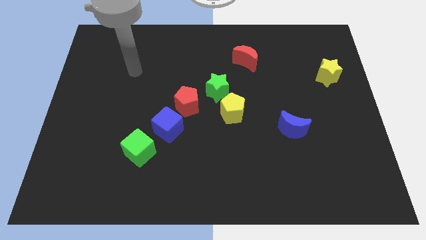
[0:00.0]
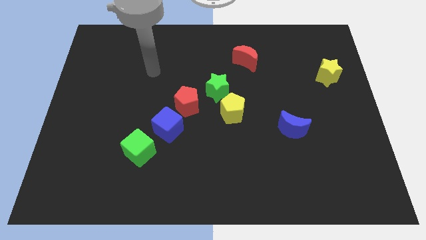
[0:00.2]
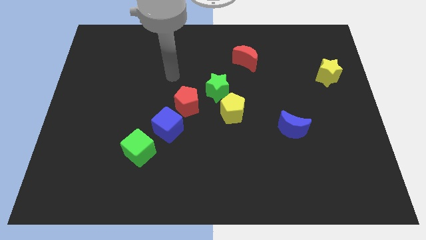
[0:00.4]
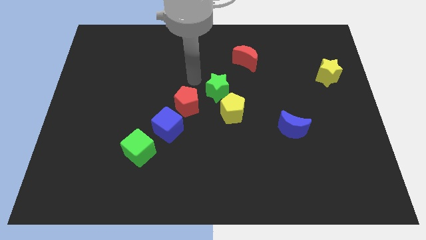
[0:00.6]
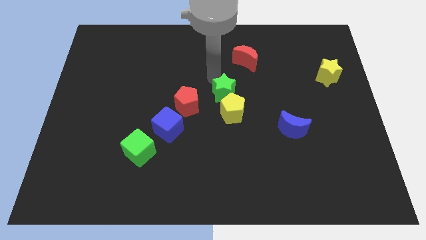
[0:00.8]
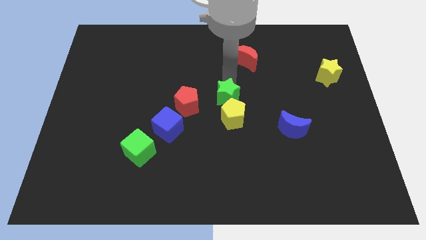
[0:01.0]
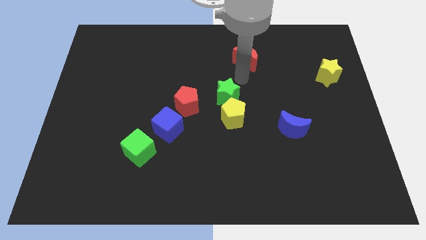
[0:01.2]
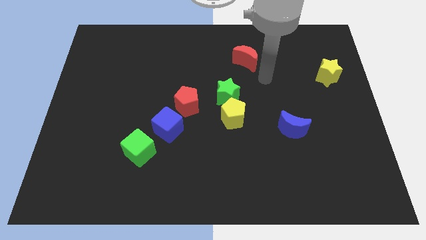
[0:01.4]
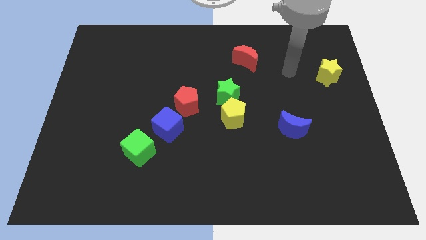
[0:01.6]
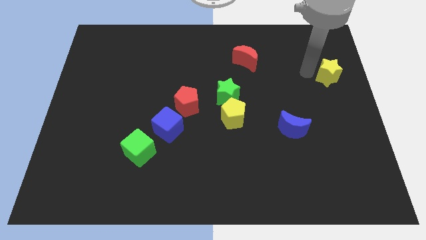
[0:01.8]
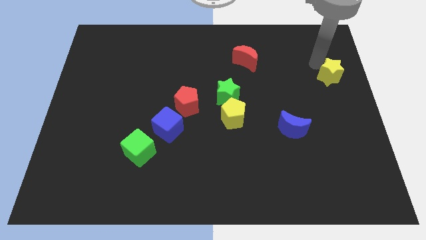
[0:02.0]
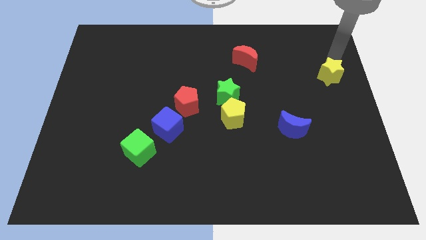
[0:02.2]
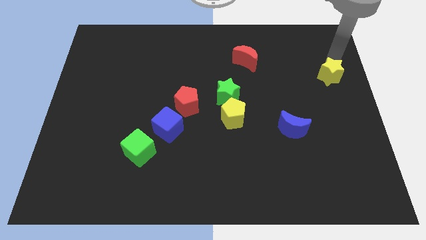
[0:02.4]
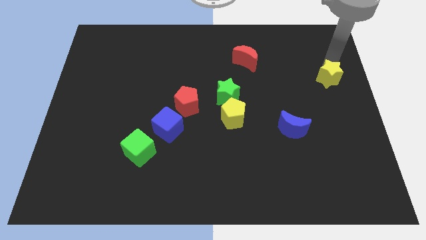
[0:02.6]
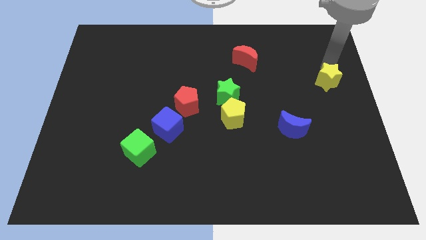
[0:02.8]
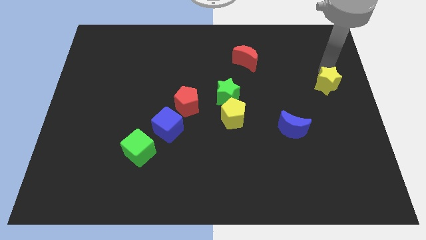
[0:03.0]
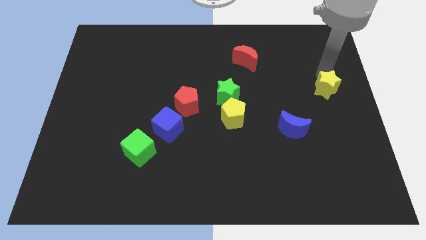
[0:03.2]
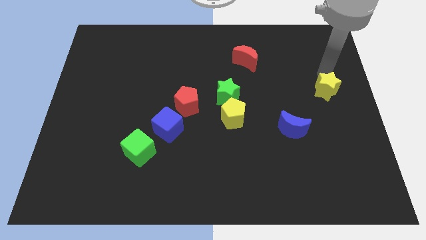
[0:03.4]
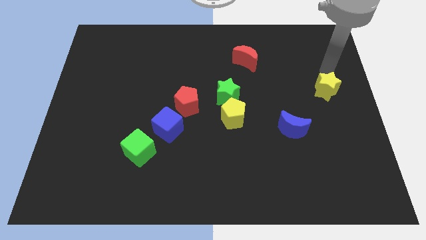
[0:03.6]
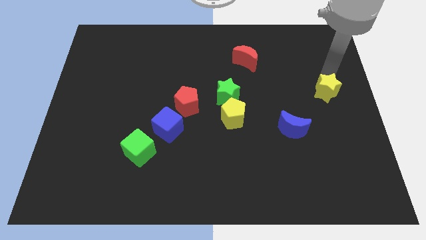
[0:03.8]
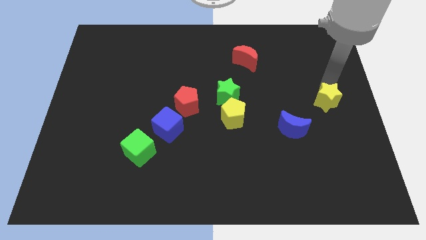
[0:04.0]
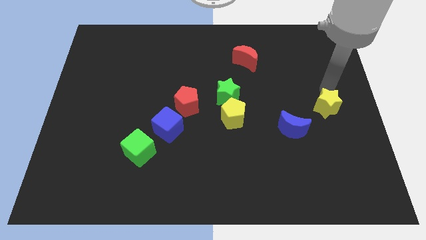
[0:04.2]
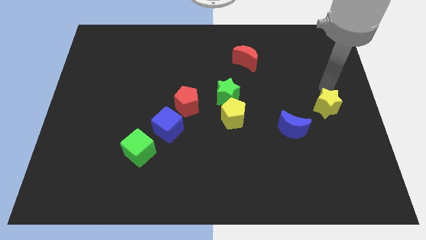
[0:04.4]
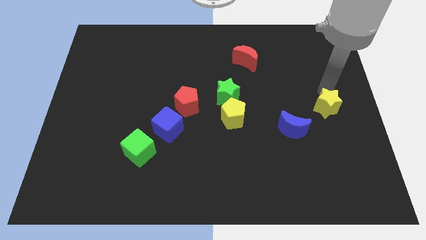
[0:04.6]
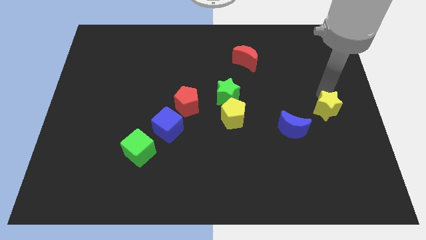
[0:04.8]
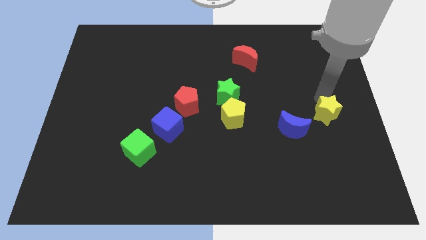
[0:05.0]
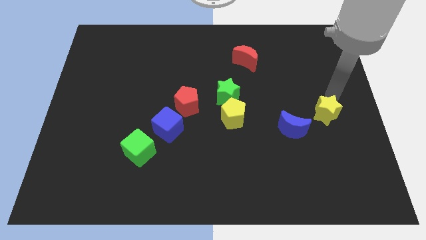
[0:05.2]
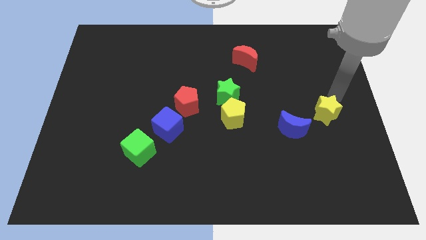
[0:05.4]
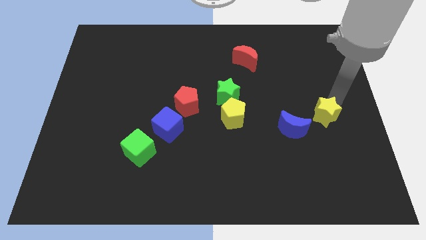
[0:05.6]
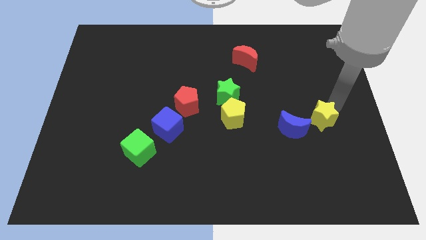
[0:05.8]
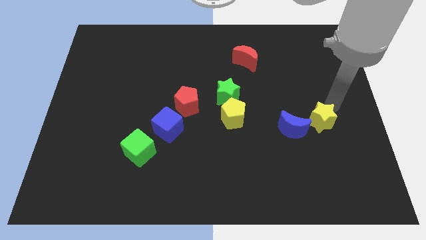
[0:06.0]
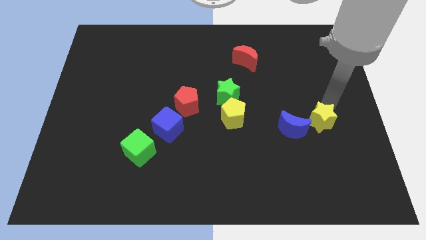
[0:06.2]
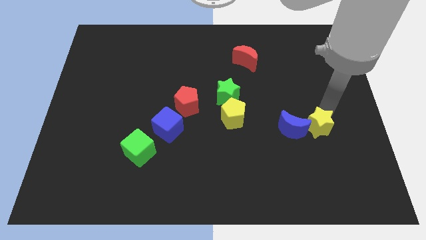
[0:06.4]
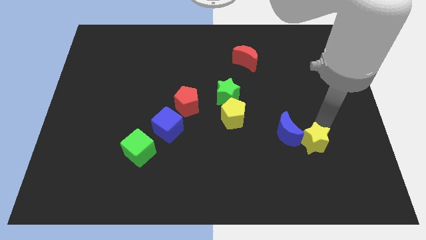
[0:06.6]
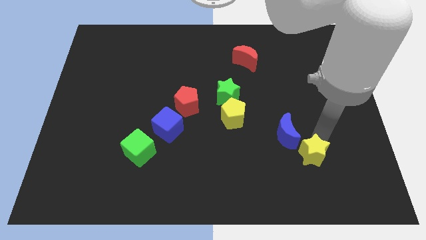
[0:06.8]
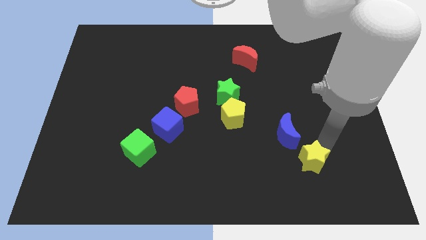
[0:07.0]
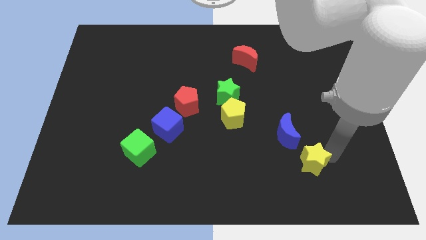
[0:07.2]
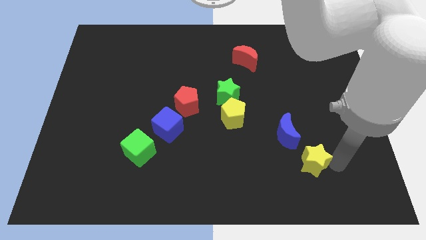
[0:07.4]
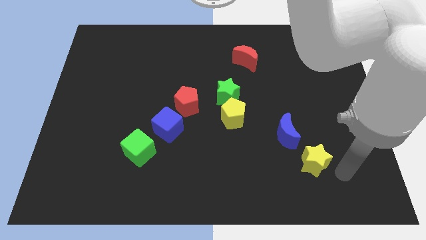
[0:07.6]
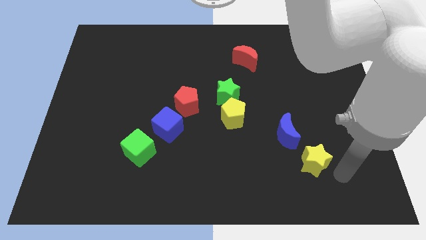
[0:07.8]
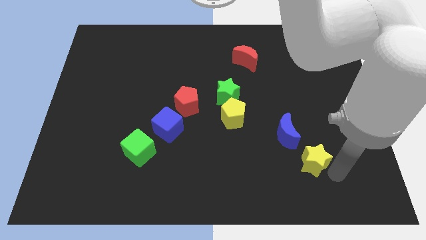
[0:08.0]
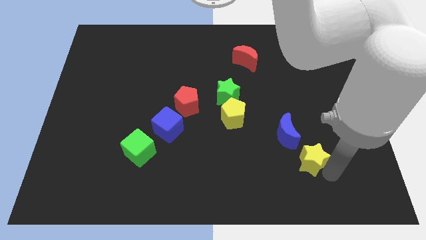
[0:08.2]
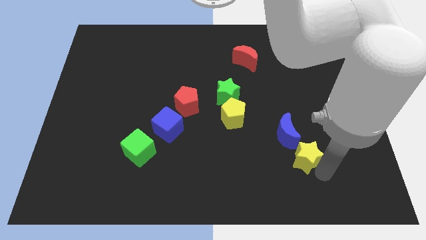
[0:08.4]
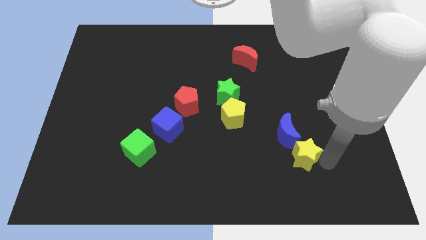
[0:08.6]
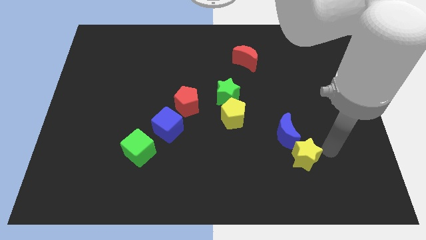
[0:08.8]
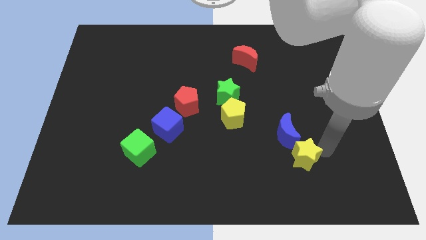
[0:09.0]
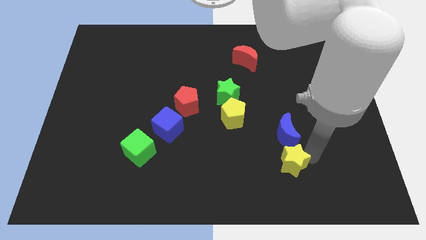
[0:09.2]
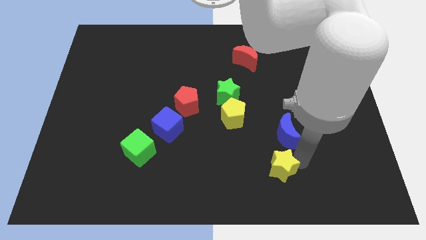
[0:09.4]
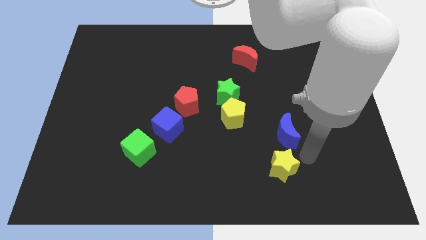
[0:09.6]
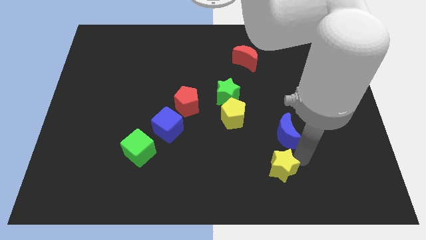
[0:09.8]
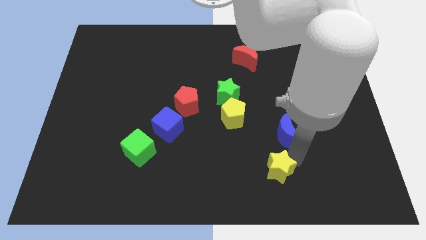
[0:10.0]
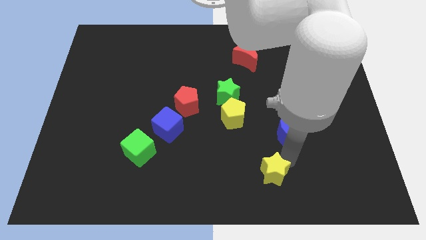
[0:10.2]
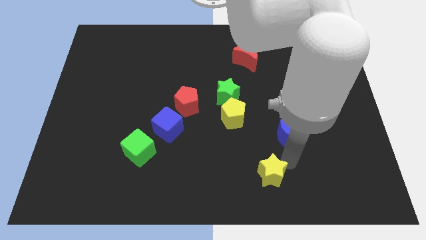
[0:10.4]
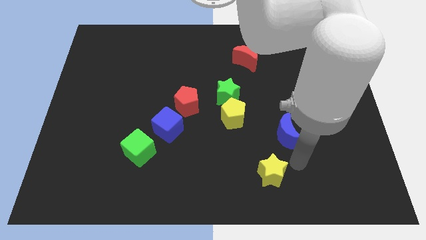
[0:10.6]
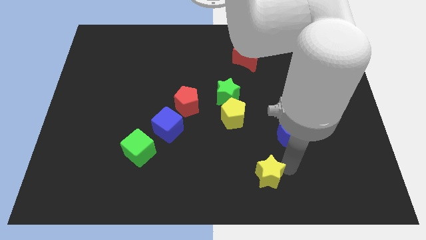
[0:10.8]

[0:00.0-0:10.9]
slide the yellow star to the bottom

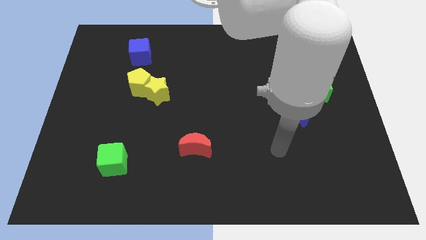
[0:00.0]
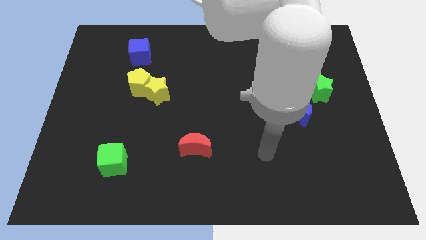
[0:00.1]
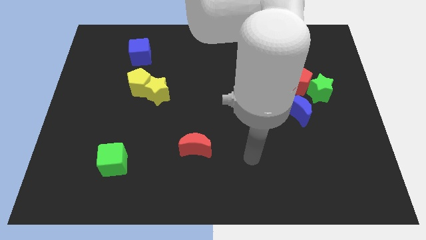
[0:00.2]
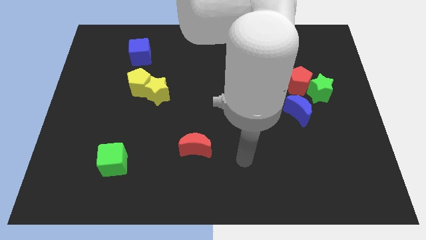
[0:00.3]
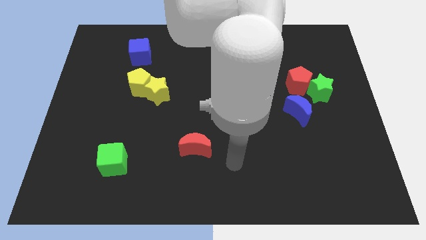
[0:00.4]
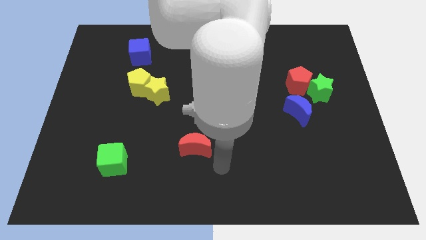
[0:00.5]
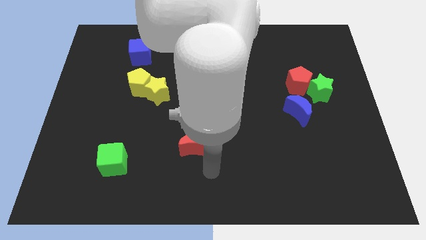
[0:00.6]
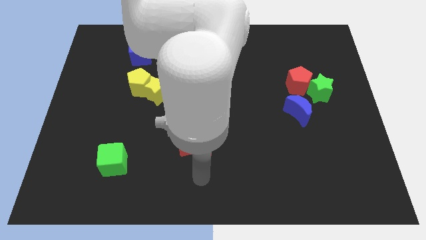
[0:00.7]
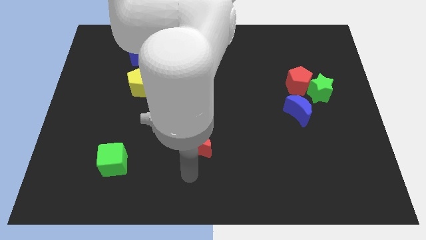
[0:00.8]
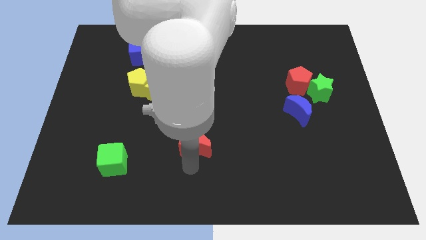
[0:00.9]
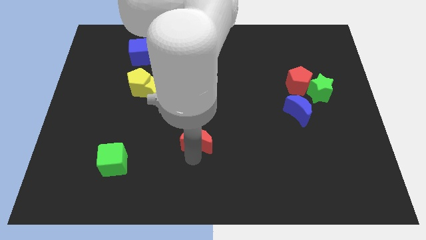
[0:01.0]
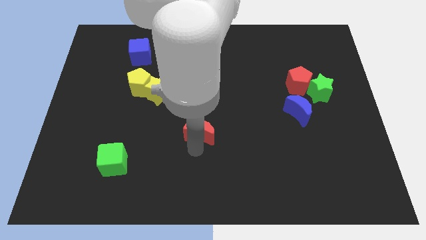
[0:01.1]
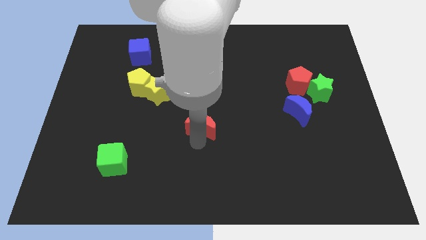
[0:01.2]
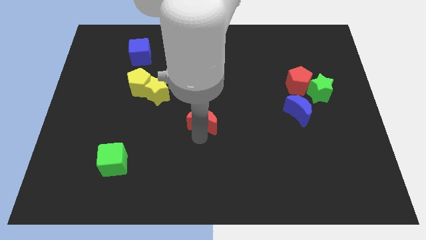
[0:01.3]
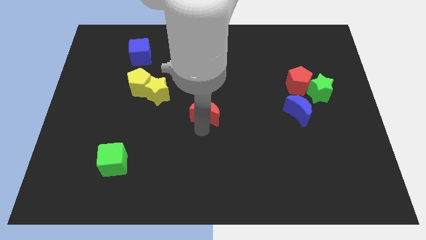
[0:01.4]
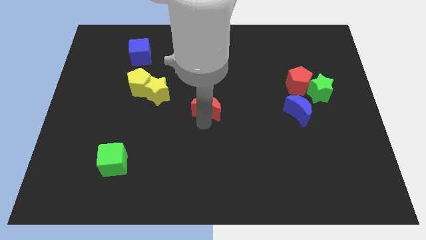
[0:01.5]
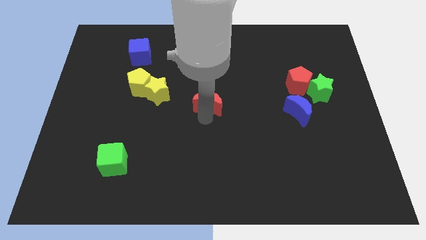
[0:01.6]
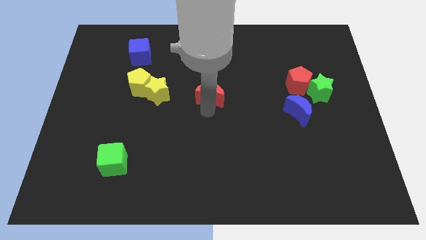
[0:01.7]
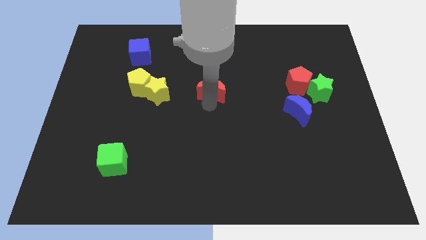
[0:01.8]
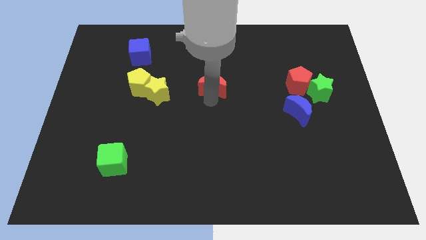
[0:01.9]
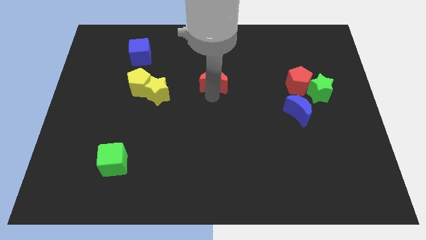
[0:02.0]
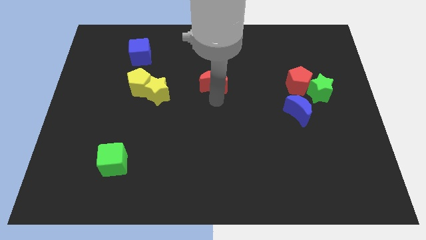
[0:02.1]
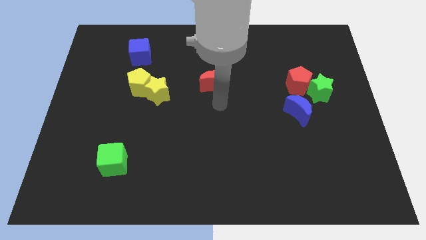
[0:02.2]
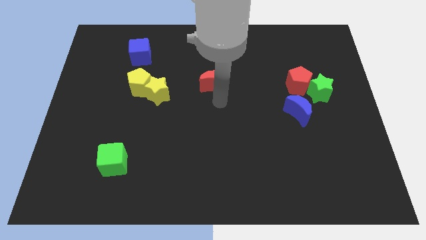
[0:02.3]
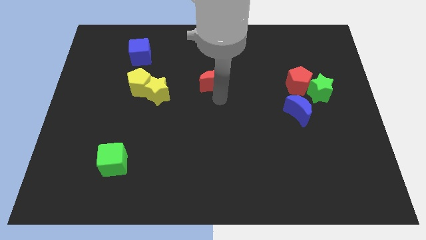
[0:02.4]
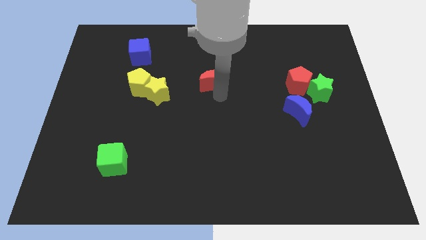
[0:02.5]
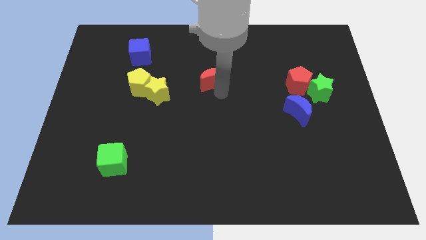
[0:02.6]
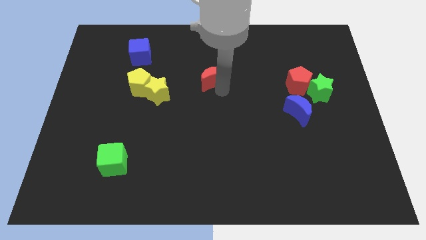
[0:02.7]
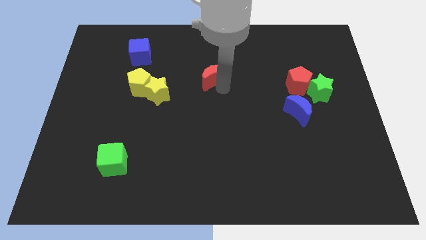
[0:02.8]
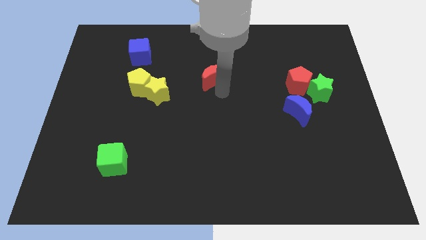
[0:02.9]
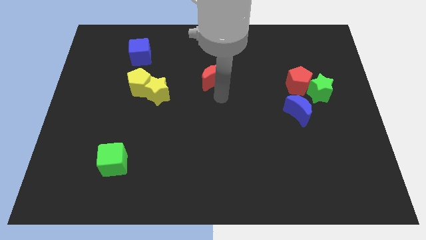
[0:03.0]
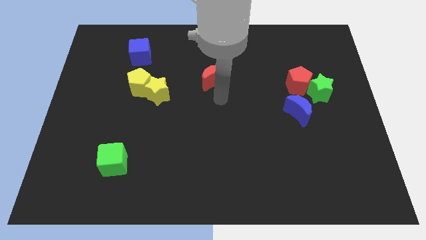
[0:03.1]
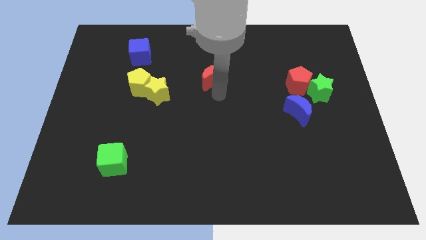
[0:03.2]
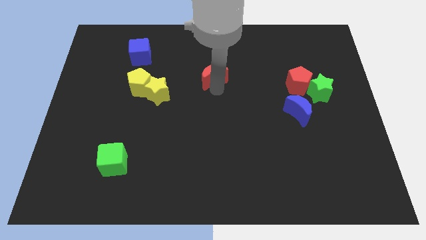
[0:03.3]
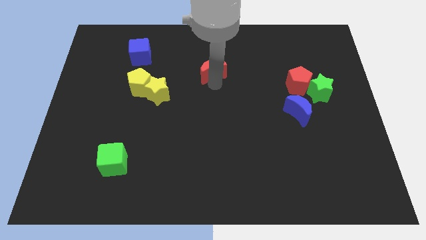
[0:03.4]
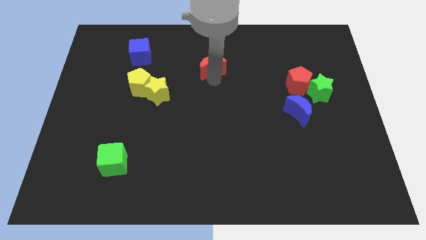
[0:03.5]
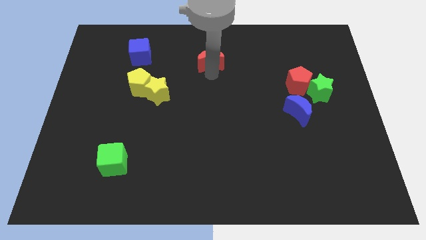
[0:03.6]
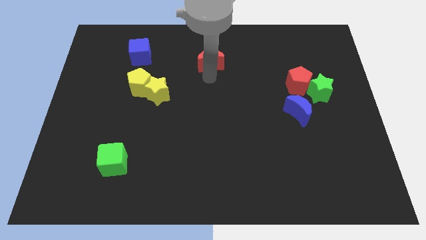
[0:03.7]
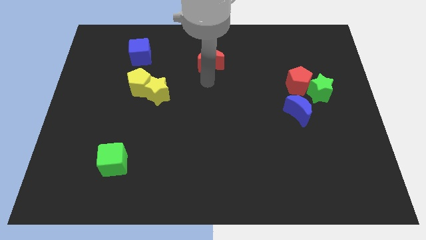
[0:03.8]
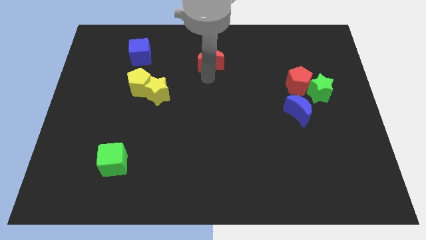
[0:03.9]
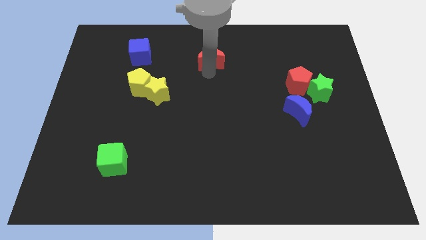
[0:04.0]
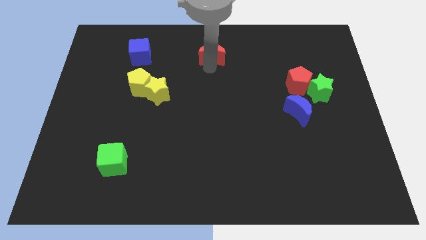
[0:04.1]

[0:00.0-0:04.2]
move the red moon to the towards your base
